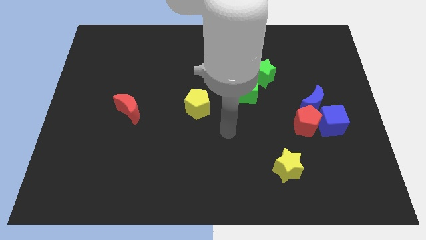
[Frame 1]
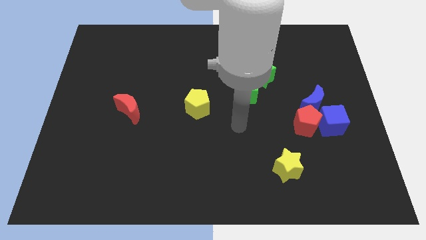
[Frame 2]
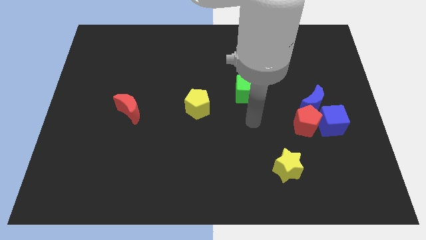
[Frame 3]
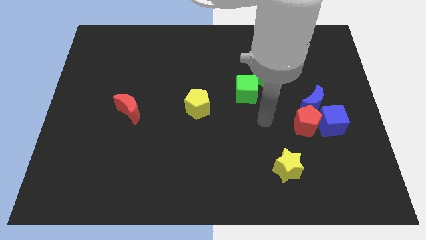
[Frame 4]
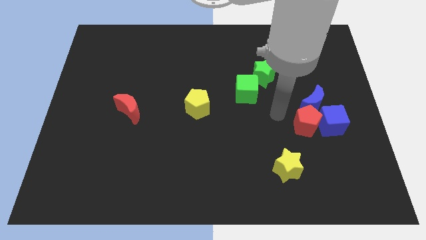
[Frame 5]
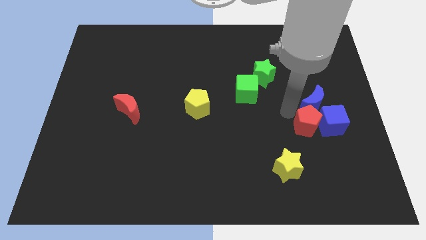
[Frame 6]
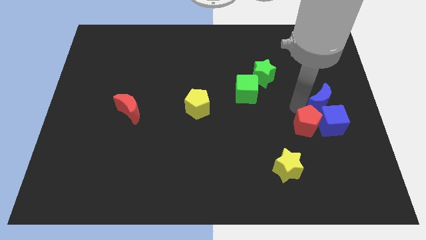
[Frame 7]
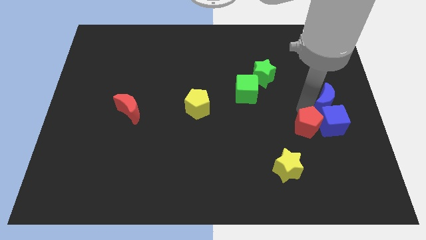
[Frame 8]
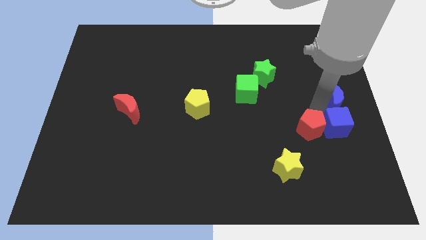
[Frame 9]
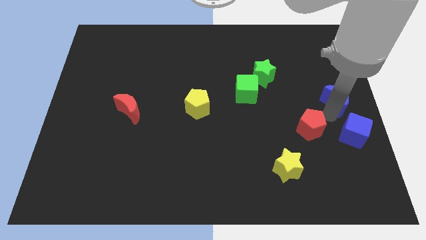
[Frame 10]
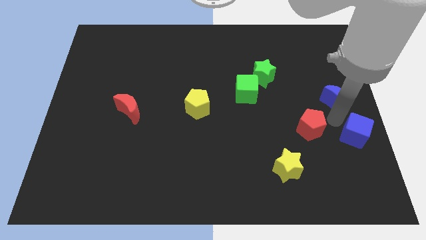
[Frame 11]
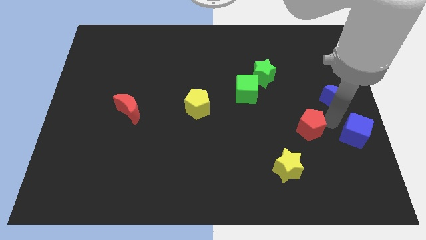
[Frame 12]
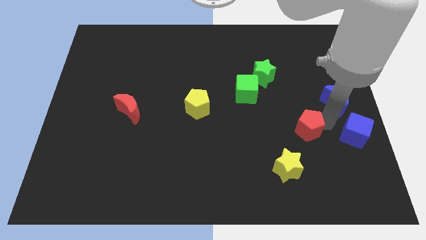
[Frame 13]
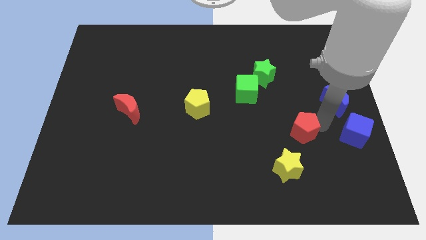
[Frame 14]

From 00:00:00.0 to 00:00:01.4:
pull the red pentagon apart from the blue cube and blue moon

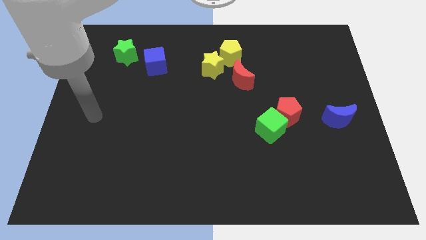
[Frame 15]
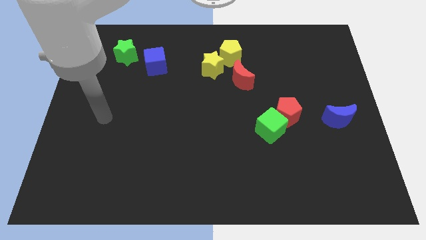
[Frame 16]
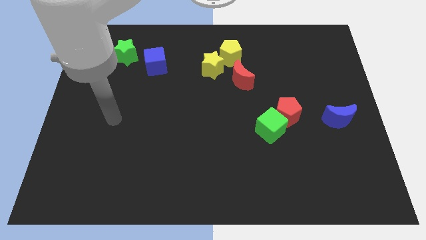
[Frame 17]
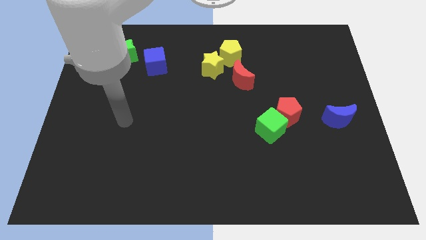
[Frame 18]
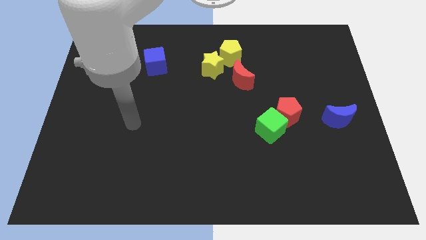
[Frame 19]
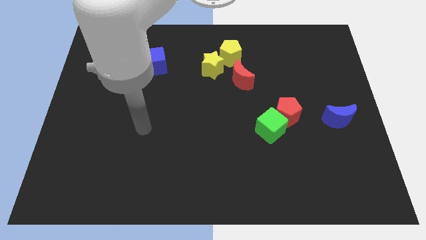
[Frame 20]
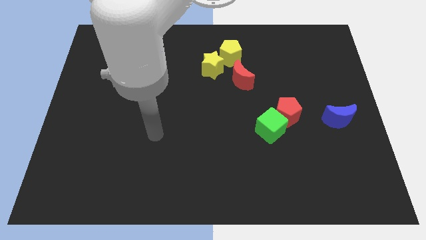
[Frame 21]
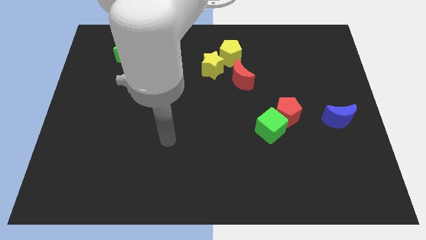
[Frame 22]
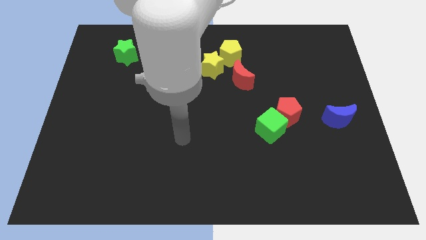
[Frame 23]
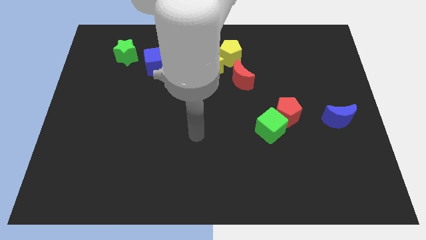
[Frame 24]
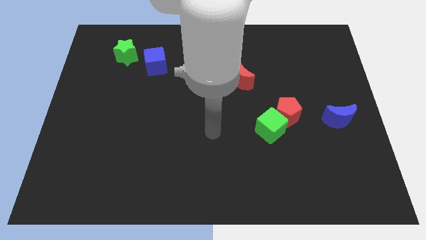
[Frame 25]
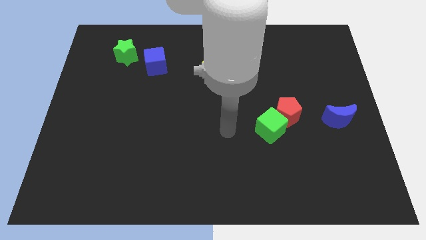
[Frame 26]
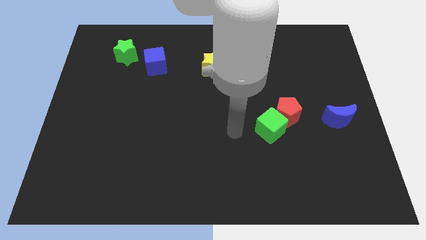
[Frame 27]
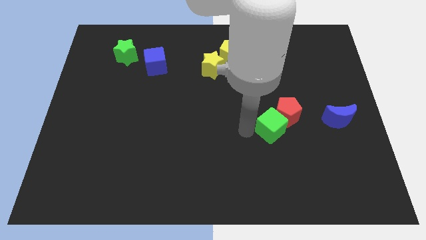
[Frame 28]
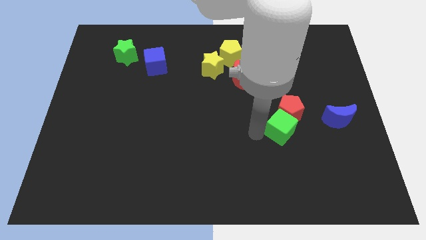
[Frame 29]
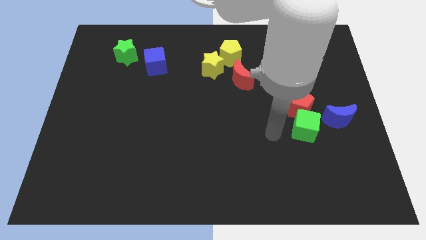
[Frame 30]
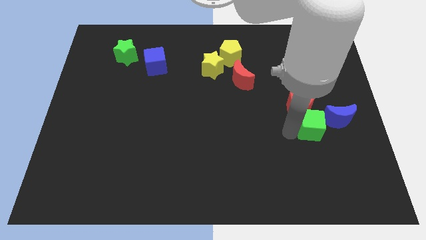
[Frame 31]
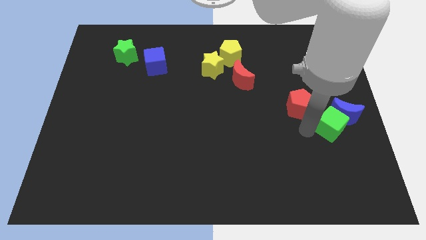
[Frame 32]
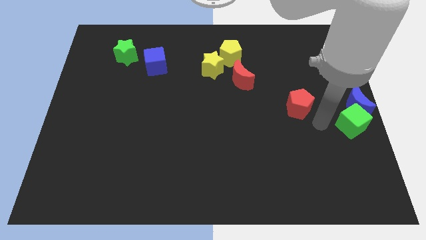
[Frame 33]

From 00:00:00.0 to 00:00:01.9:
pull the red pentagon apart from the green cube

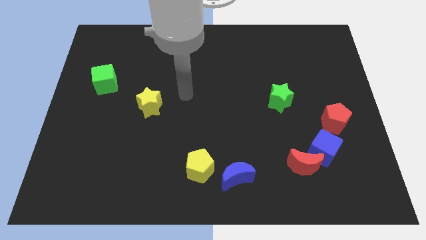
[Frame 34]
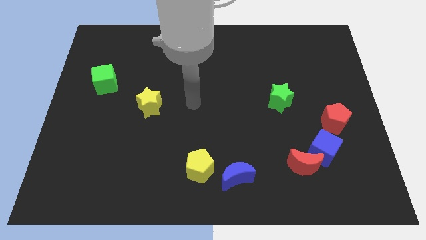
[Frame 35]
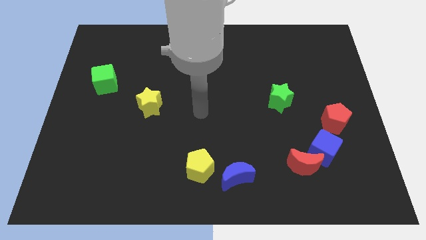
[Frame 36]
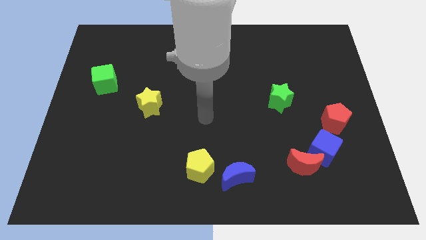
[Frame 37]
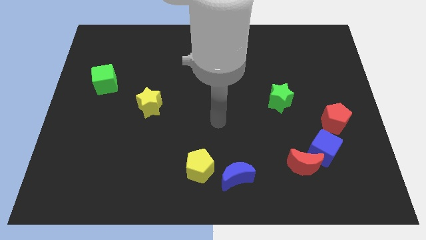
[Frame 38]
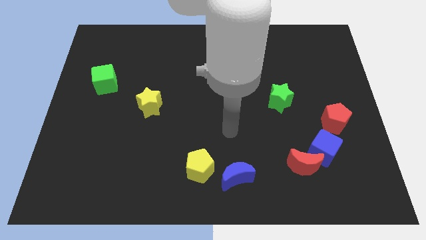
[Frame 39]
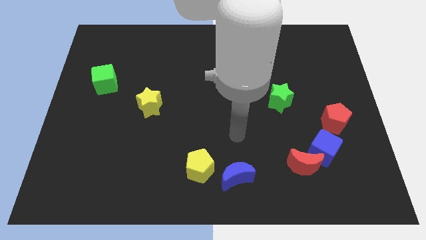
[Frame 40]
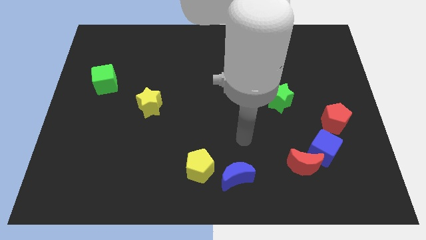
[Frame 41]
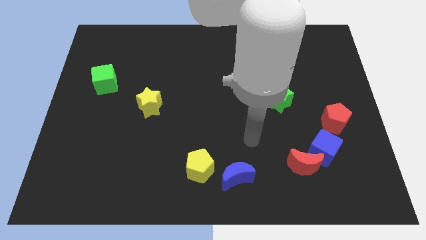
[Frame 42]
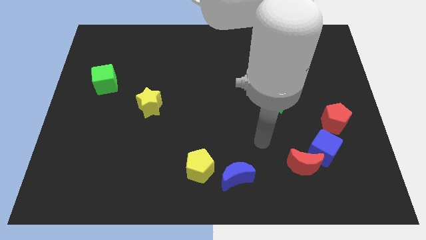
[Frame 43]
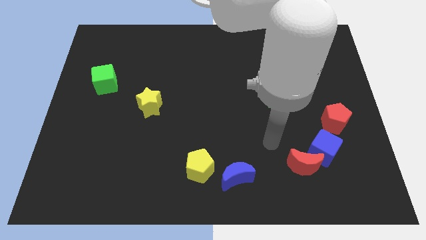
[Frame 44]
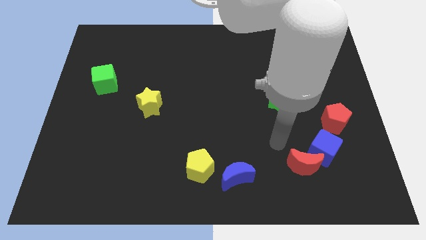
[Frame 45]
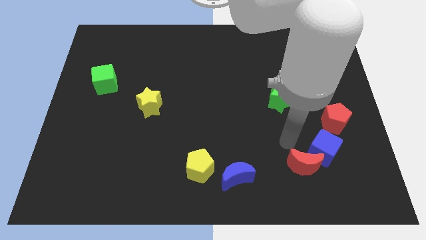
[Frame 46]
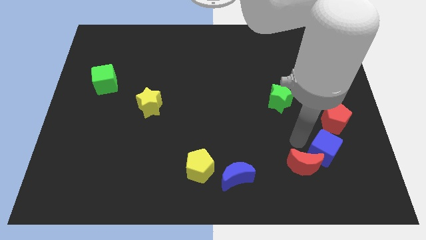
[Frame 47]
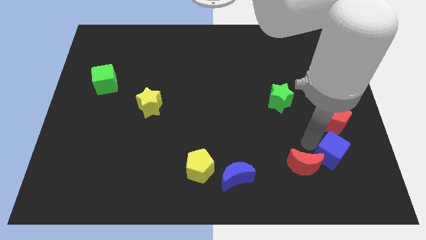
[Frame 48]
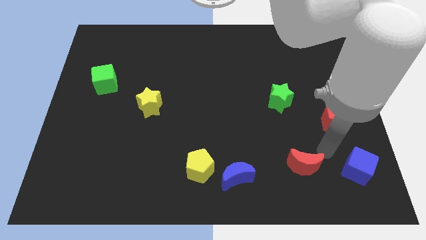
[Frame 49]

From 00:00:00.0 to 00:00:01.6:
separate the red moon from the blue cube

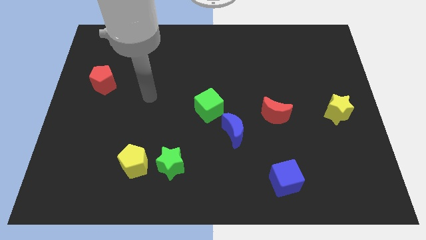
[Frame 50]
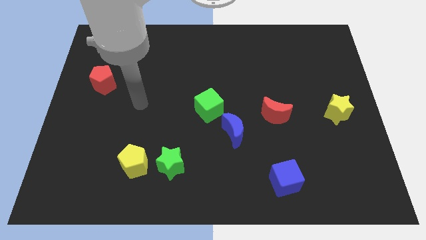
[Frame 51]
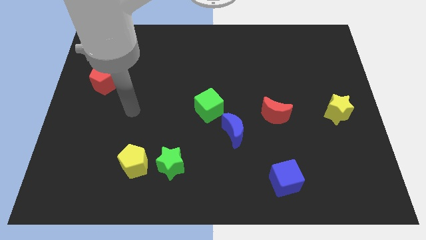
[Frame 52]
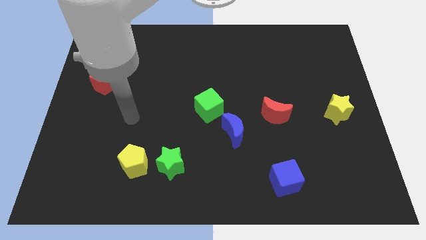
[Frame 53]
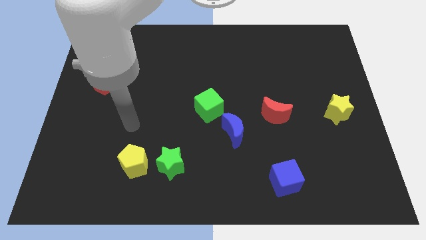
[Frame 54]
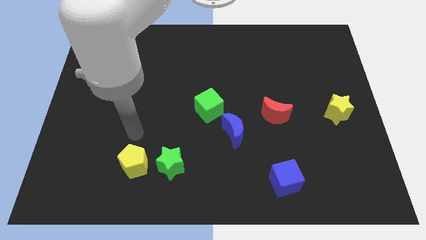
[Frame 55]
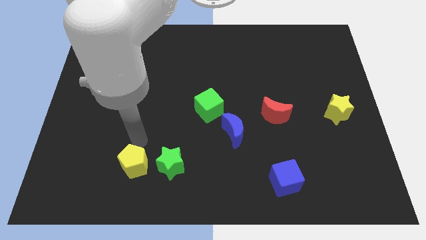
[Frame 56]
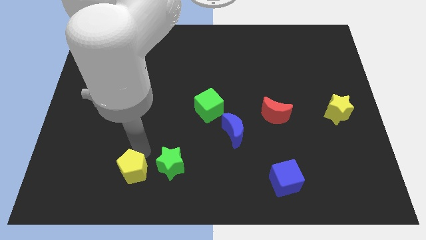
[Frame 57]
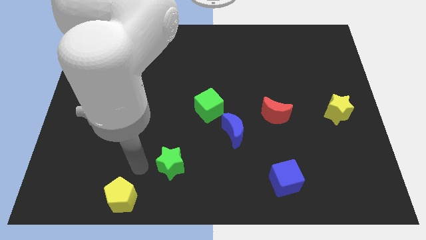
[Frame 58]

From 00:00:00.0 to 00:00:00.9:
separate the green star from the yellow pentagon

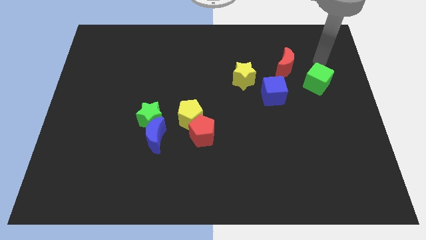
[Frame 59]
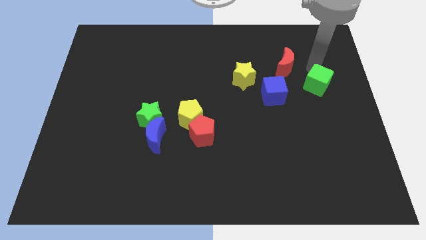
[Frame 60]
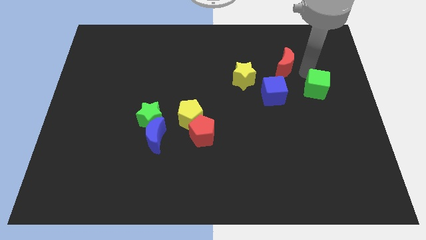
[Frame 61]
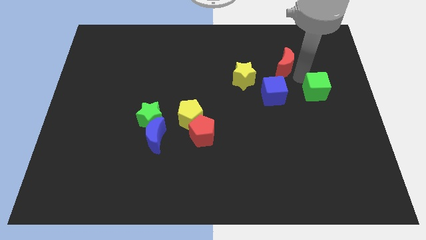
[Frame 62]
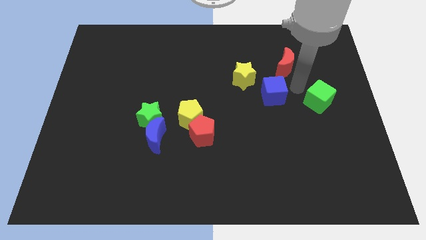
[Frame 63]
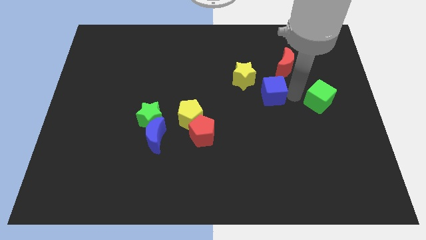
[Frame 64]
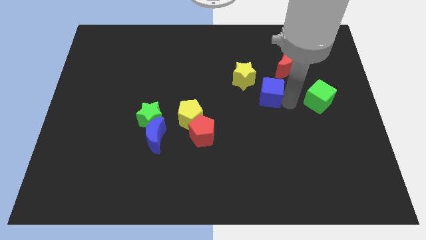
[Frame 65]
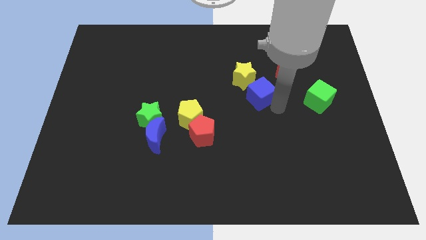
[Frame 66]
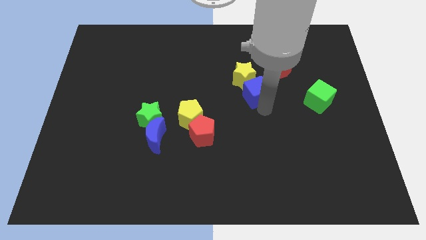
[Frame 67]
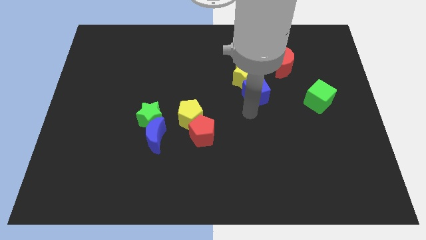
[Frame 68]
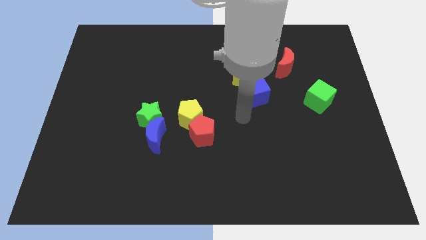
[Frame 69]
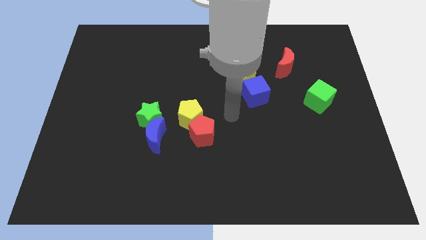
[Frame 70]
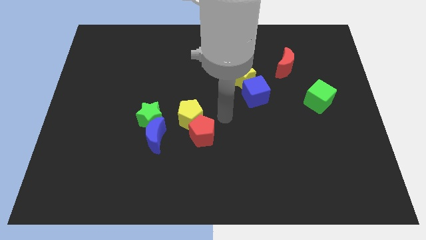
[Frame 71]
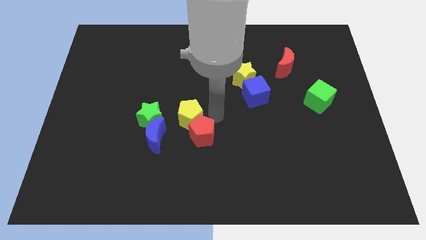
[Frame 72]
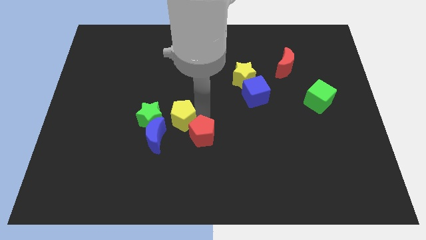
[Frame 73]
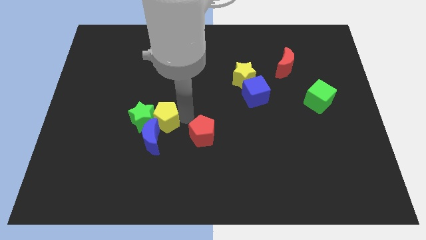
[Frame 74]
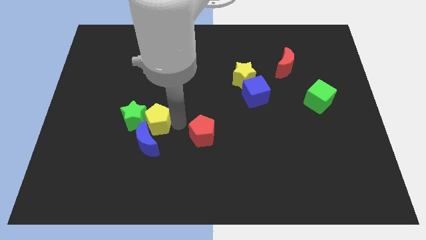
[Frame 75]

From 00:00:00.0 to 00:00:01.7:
separate the red pentagon from the yellow pentagon

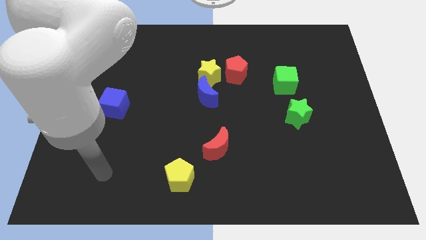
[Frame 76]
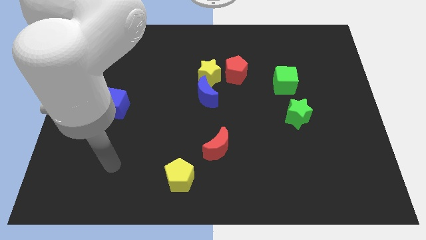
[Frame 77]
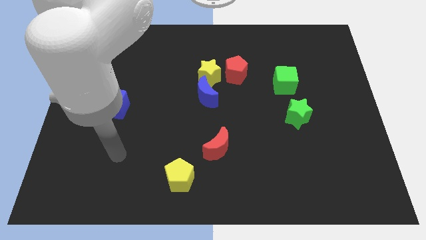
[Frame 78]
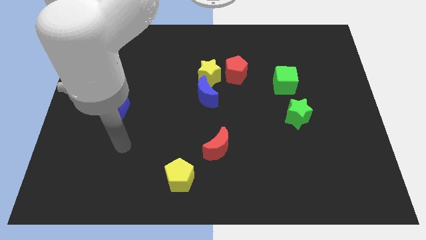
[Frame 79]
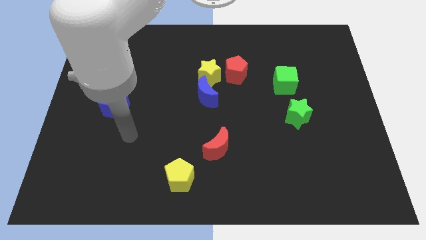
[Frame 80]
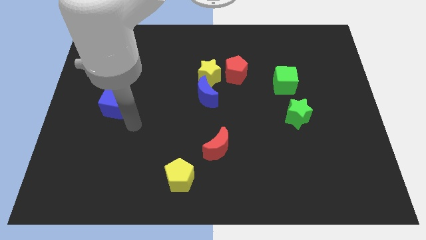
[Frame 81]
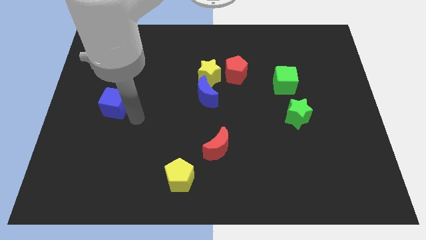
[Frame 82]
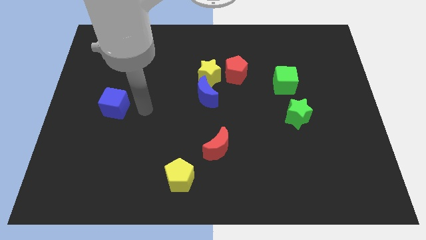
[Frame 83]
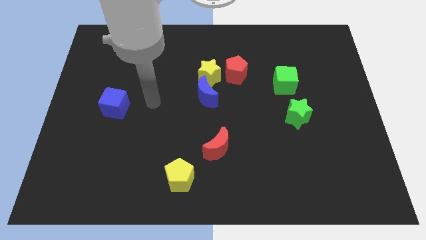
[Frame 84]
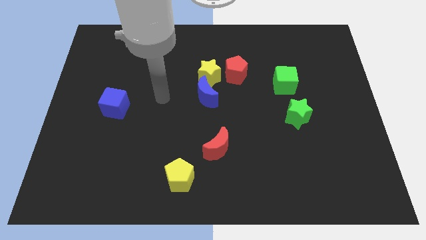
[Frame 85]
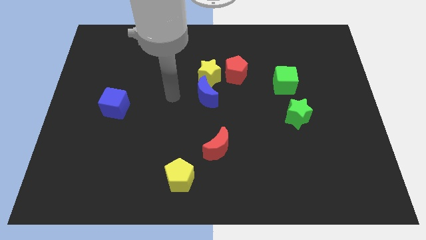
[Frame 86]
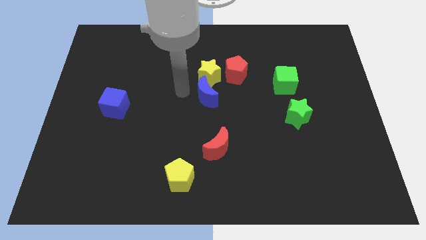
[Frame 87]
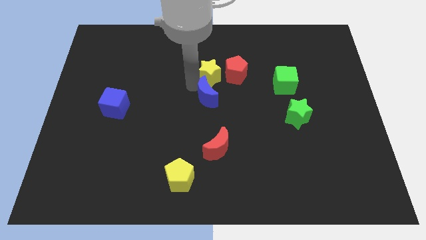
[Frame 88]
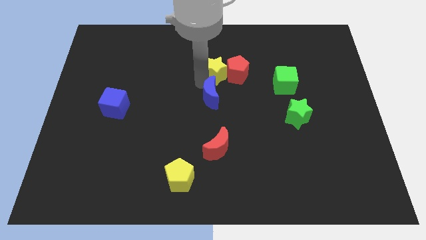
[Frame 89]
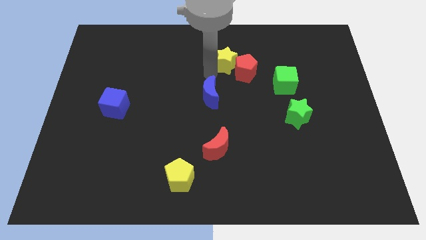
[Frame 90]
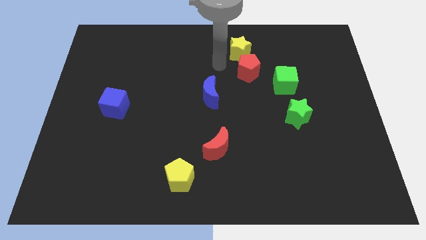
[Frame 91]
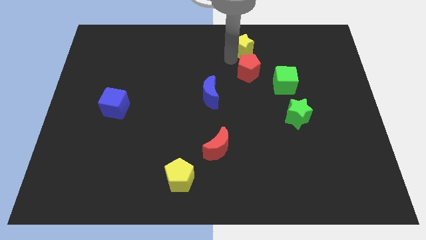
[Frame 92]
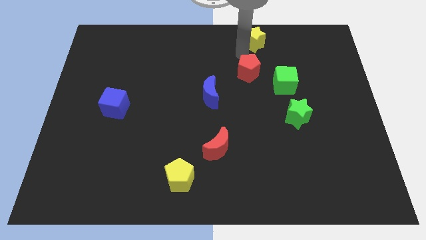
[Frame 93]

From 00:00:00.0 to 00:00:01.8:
separate the red pentagon from the yellow star
